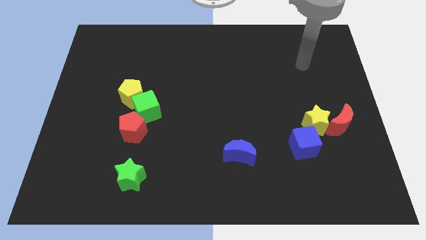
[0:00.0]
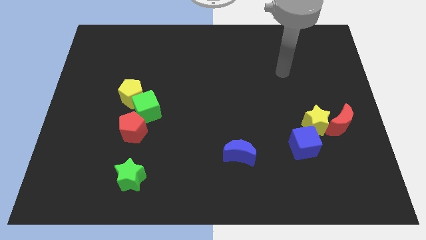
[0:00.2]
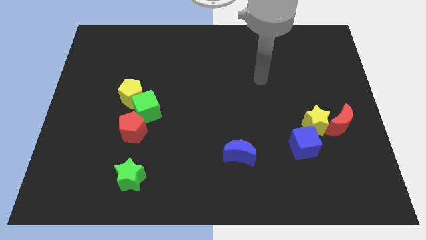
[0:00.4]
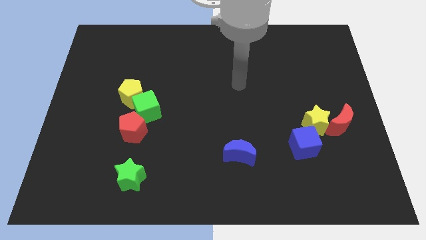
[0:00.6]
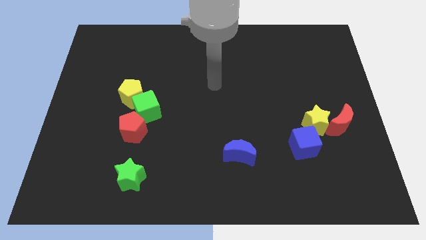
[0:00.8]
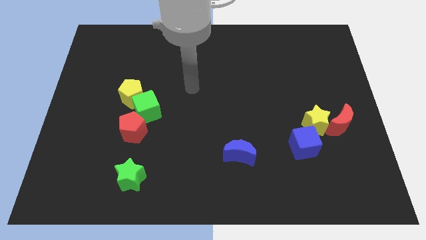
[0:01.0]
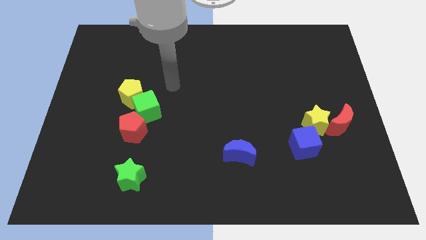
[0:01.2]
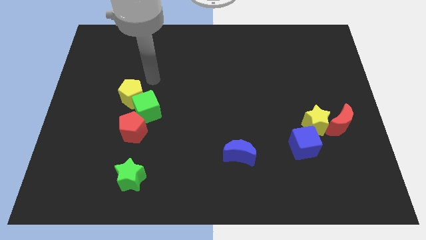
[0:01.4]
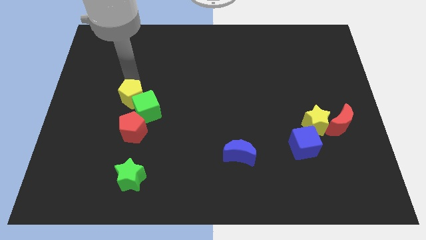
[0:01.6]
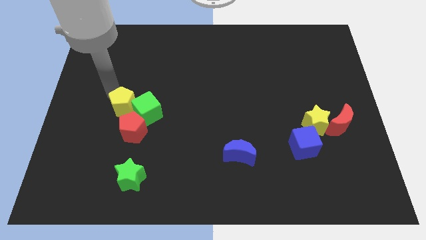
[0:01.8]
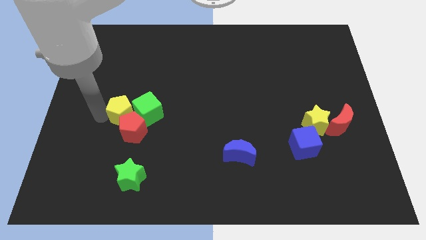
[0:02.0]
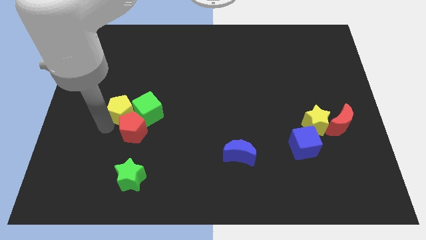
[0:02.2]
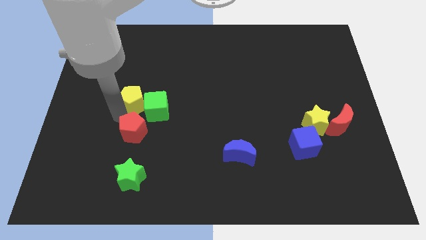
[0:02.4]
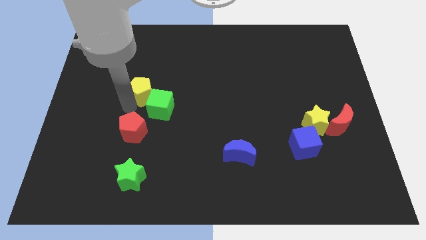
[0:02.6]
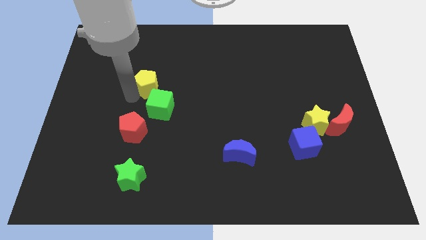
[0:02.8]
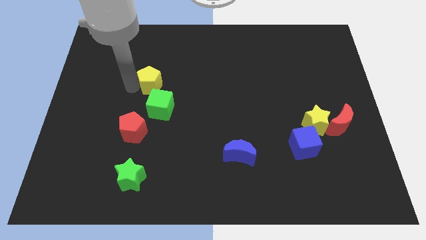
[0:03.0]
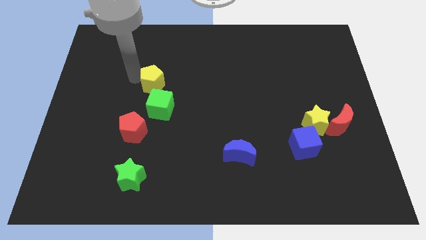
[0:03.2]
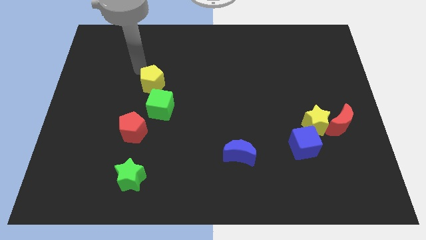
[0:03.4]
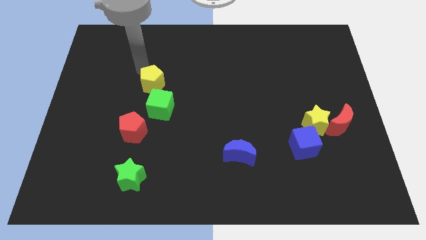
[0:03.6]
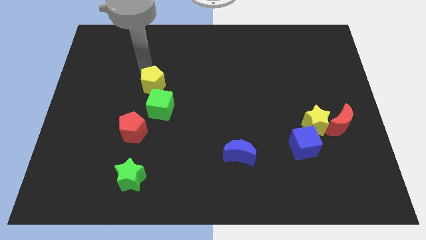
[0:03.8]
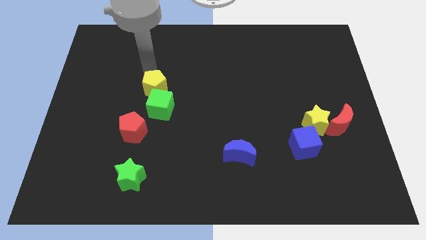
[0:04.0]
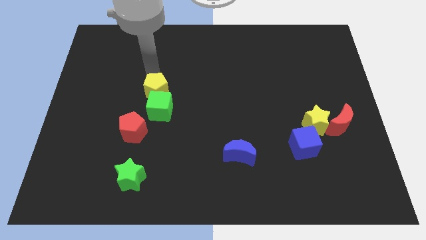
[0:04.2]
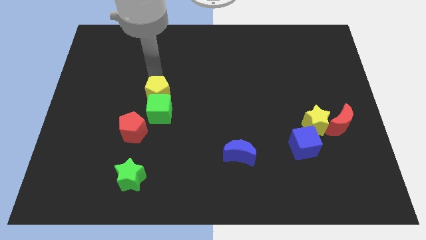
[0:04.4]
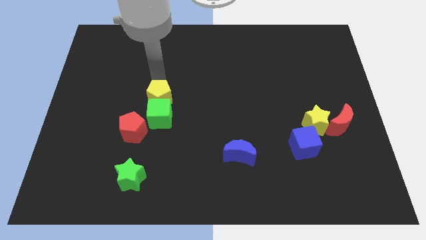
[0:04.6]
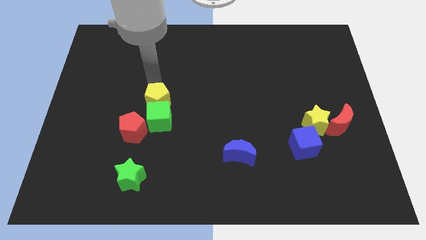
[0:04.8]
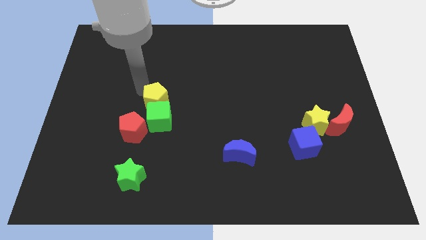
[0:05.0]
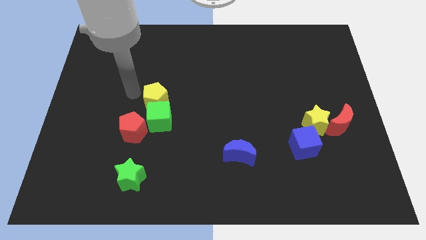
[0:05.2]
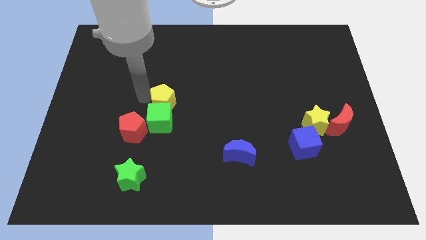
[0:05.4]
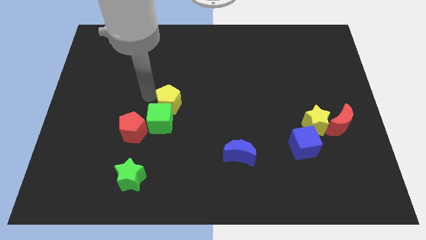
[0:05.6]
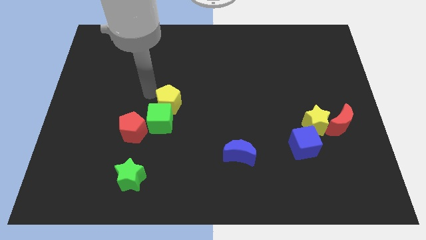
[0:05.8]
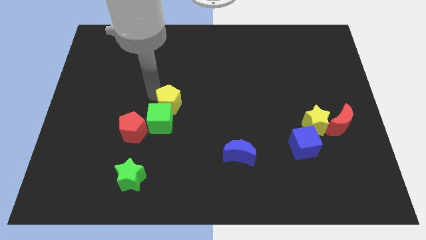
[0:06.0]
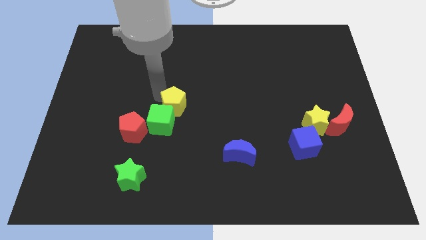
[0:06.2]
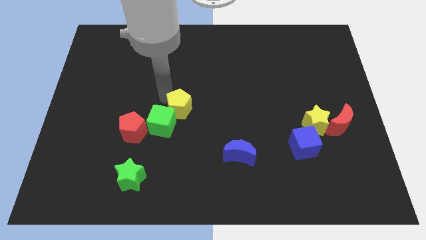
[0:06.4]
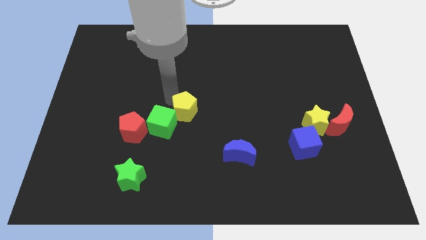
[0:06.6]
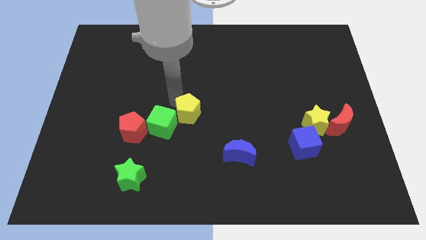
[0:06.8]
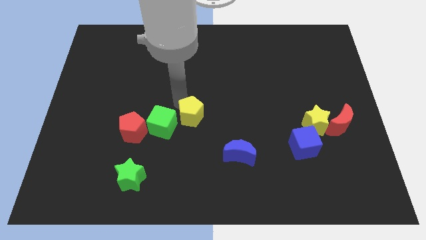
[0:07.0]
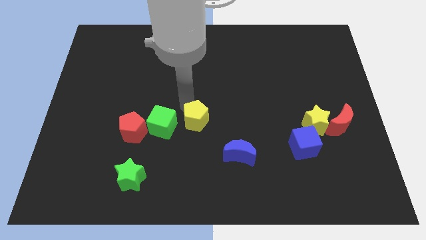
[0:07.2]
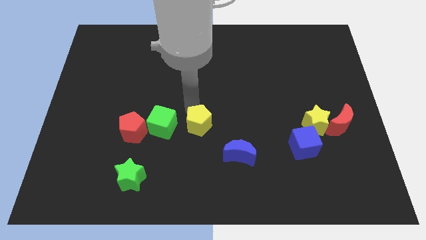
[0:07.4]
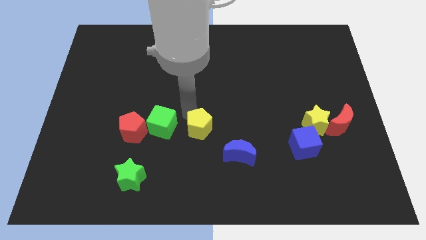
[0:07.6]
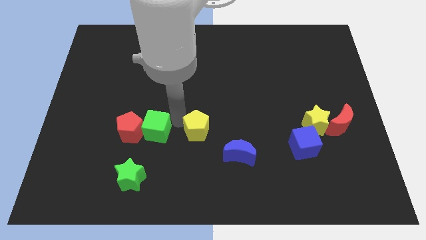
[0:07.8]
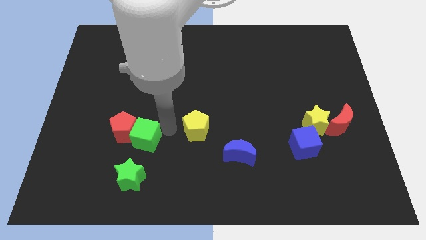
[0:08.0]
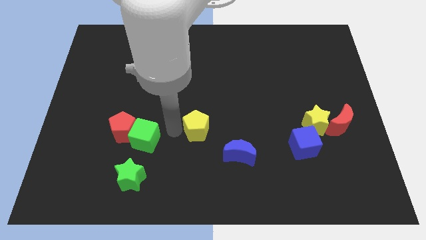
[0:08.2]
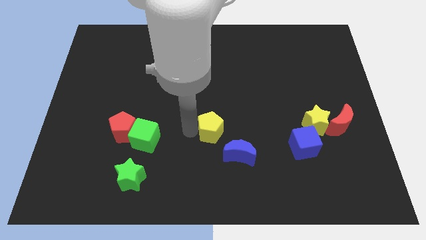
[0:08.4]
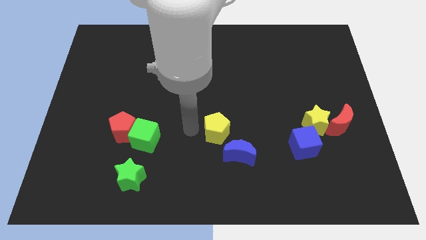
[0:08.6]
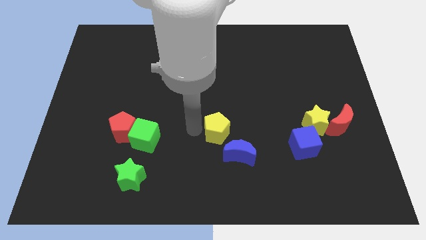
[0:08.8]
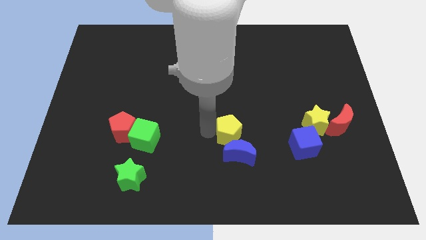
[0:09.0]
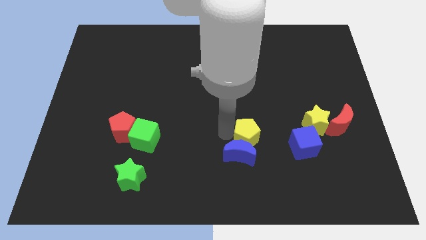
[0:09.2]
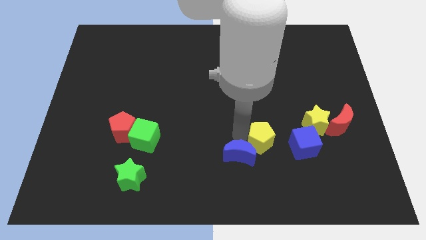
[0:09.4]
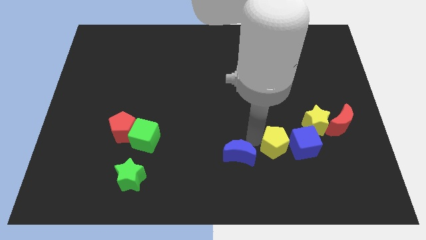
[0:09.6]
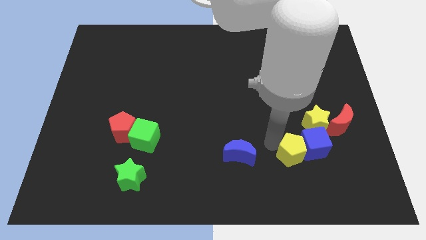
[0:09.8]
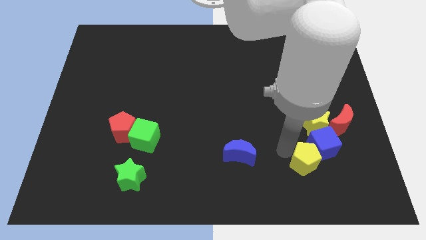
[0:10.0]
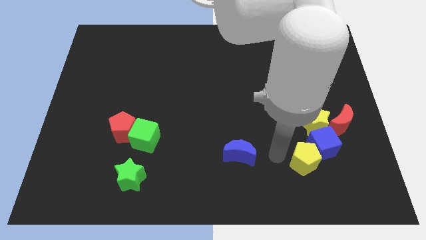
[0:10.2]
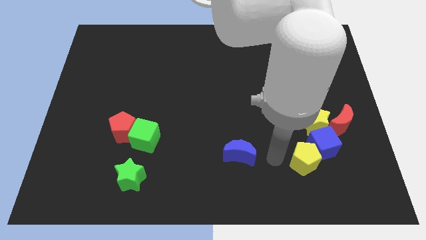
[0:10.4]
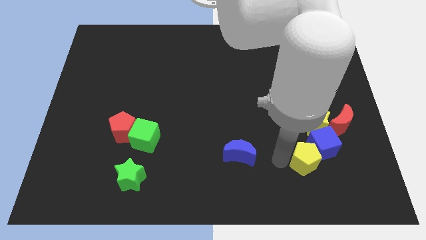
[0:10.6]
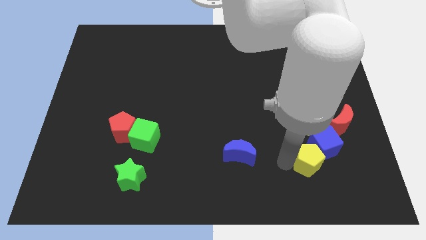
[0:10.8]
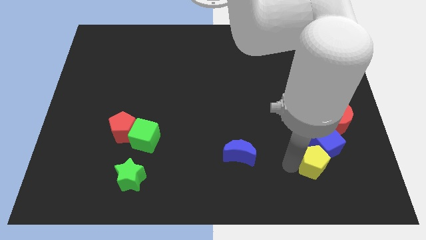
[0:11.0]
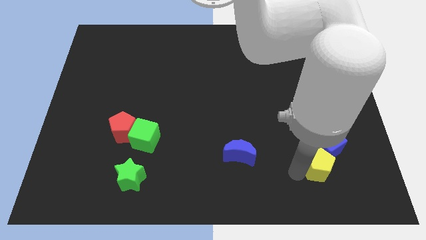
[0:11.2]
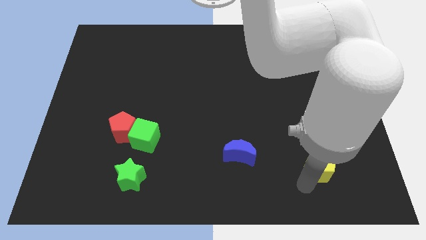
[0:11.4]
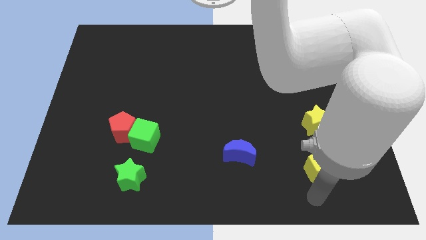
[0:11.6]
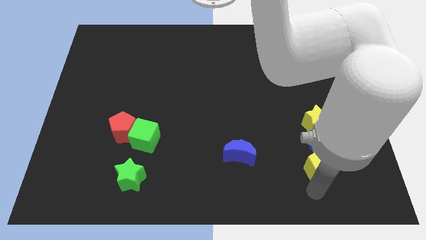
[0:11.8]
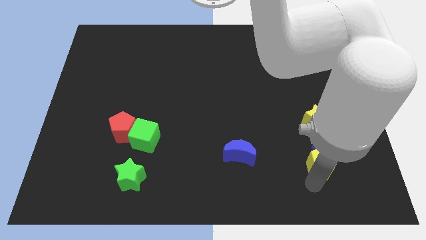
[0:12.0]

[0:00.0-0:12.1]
slide the yellow pentagon to the bottom left side of the red moon

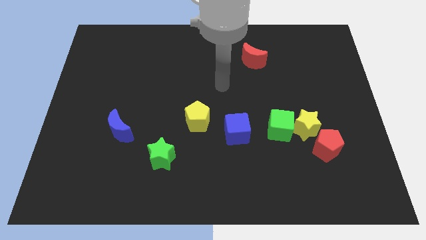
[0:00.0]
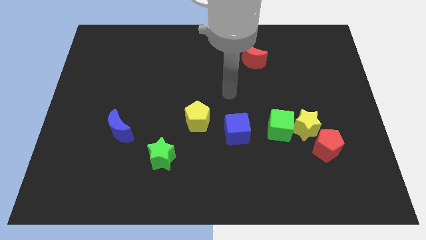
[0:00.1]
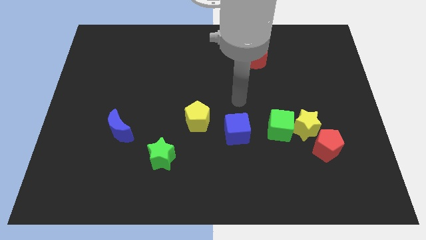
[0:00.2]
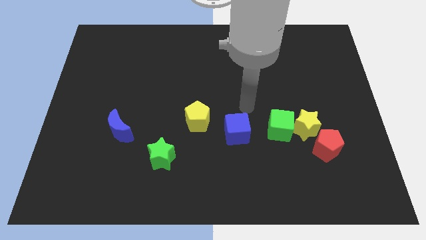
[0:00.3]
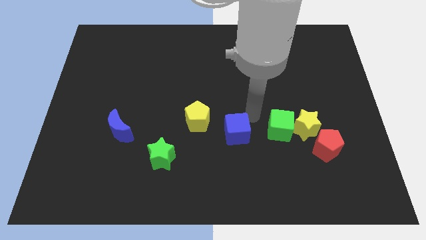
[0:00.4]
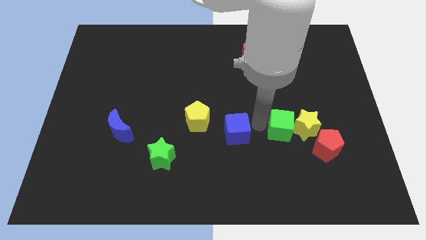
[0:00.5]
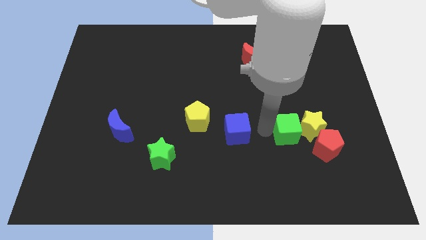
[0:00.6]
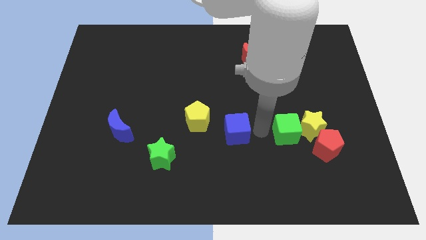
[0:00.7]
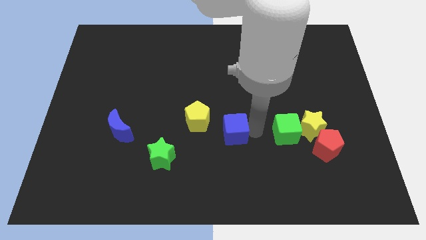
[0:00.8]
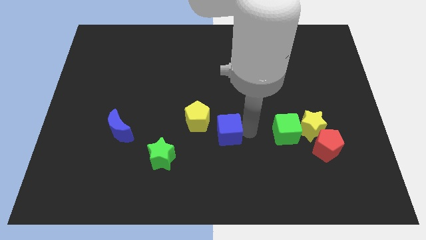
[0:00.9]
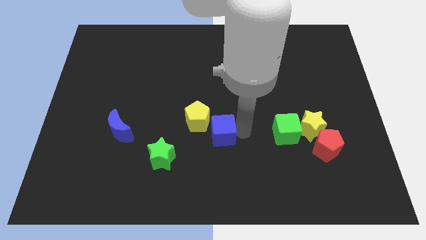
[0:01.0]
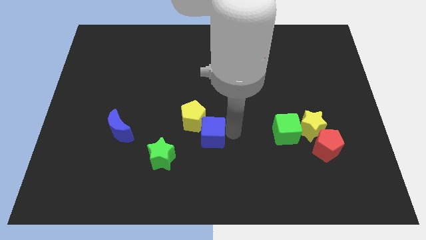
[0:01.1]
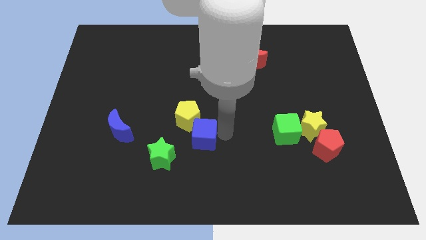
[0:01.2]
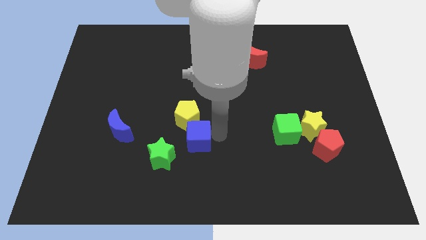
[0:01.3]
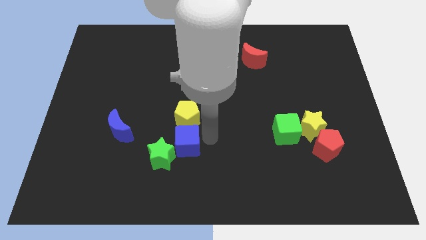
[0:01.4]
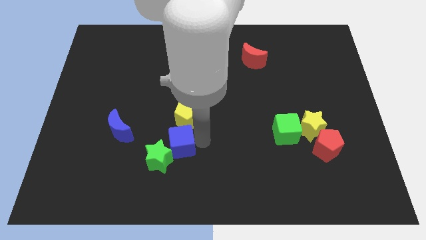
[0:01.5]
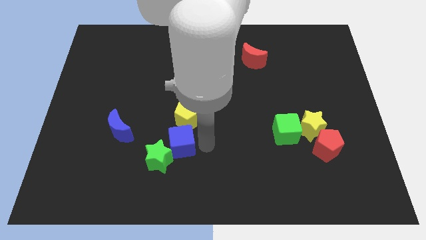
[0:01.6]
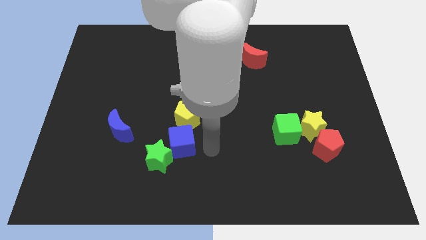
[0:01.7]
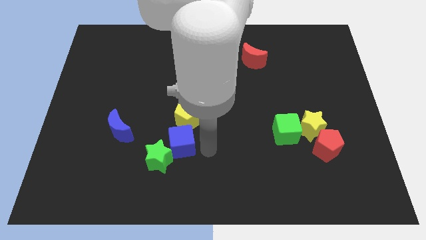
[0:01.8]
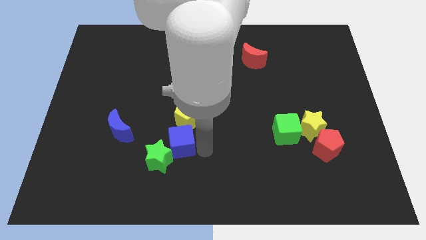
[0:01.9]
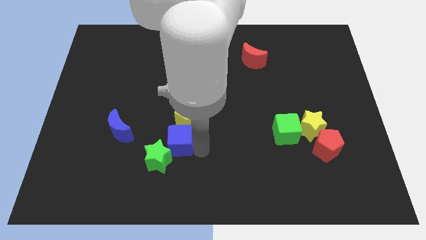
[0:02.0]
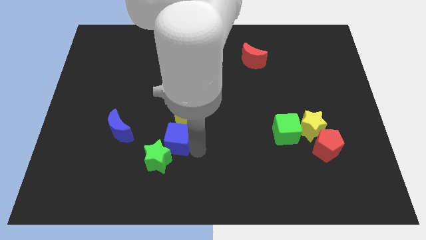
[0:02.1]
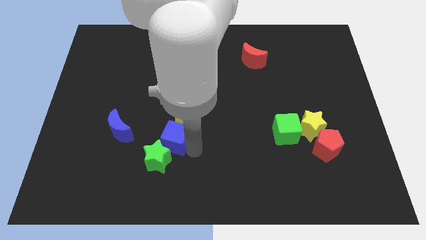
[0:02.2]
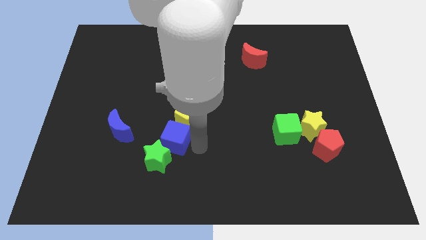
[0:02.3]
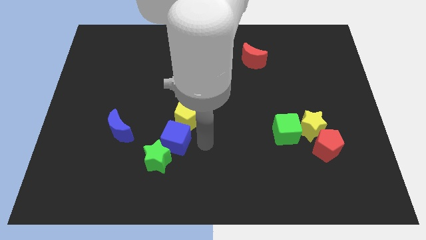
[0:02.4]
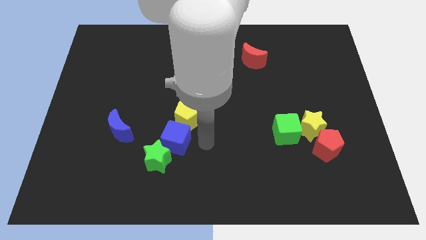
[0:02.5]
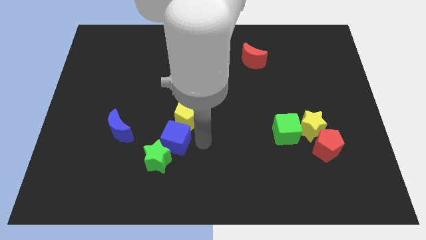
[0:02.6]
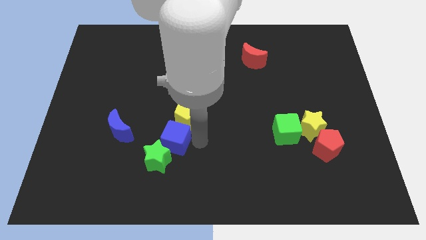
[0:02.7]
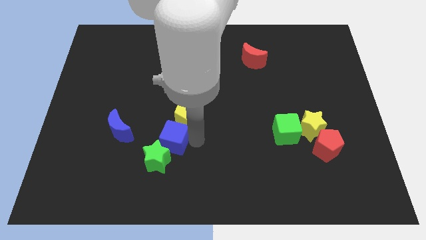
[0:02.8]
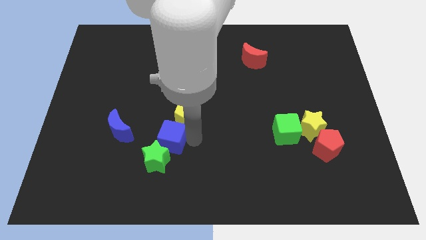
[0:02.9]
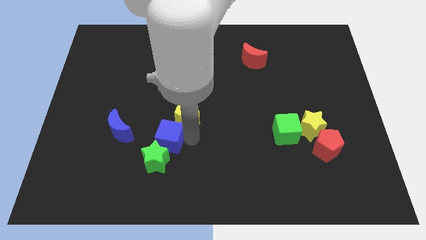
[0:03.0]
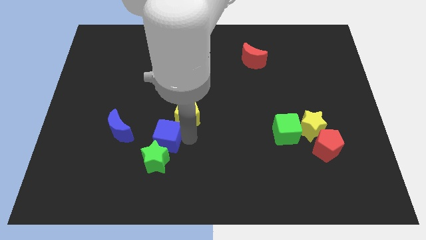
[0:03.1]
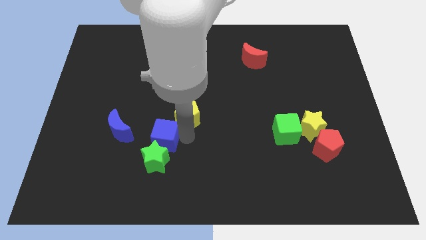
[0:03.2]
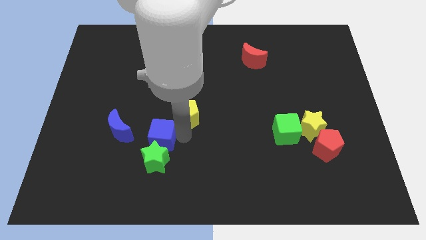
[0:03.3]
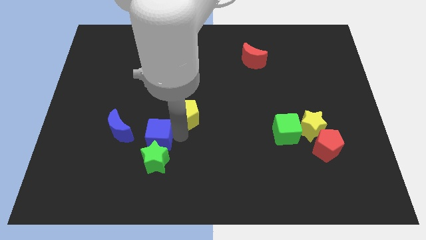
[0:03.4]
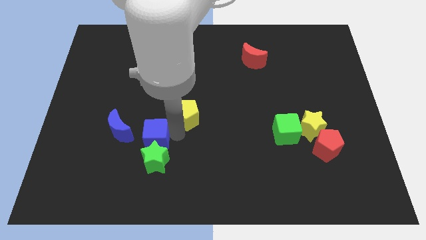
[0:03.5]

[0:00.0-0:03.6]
push the blue cube to the bottom right side of the blue moon
